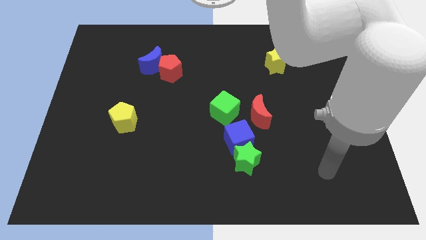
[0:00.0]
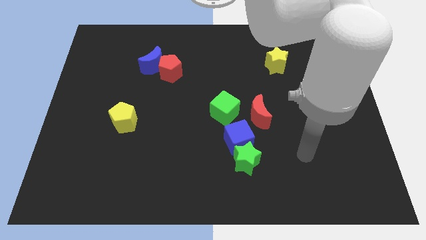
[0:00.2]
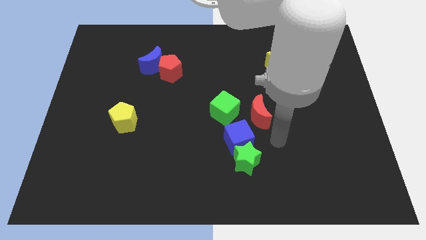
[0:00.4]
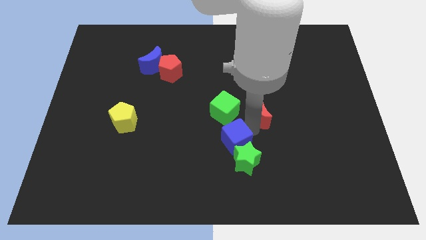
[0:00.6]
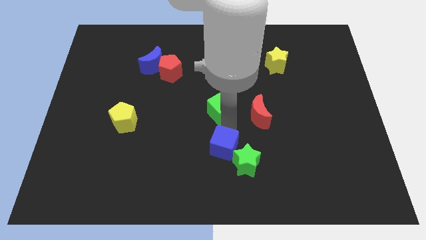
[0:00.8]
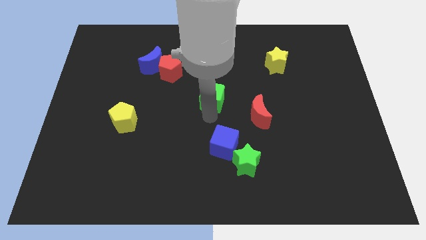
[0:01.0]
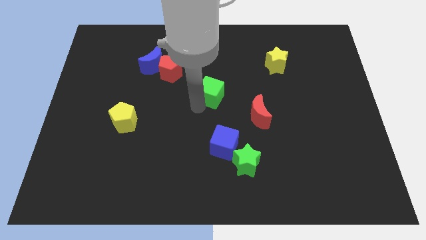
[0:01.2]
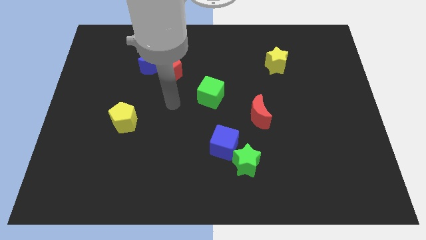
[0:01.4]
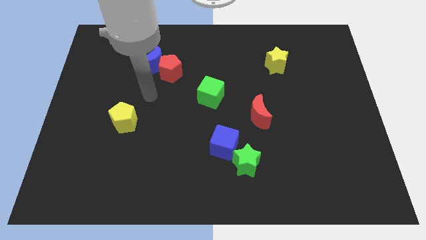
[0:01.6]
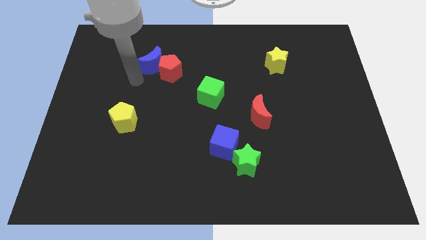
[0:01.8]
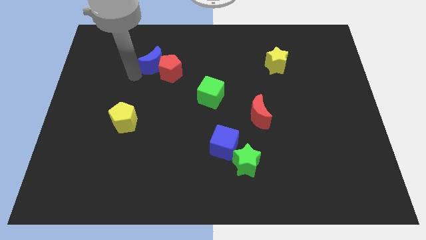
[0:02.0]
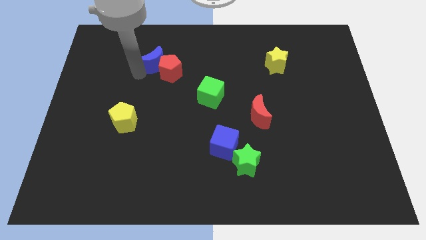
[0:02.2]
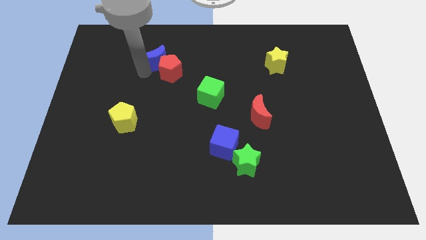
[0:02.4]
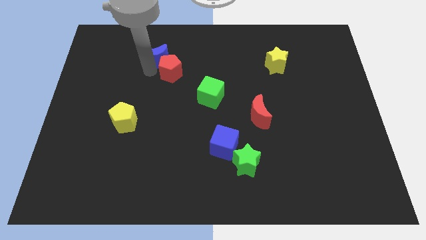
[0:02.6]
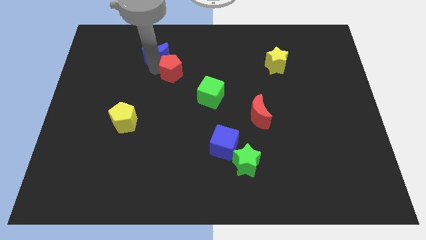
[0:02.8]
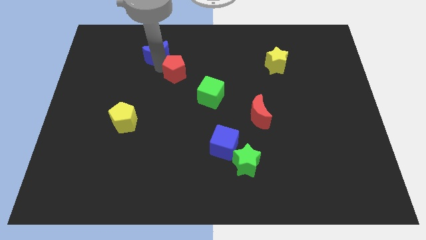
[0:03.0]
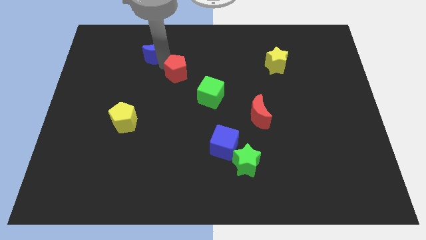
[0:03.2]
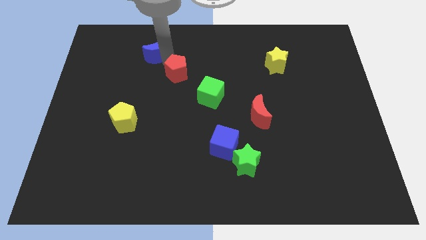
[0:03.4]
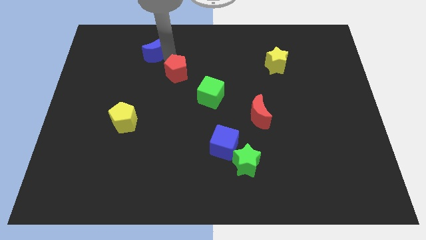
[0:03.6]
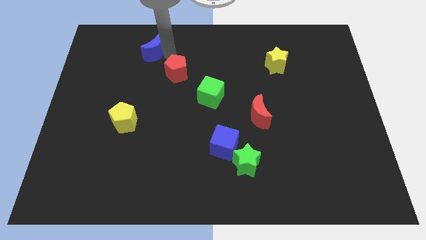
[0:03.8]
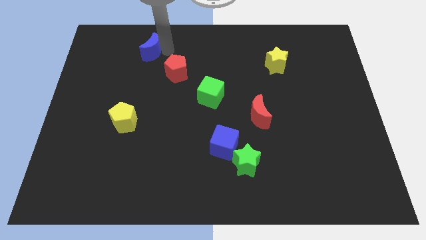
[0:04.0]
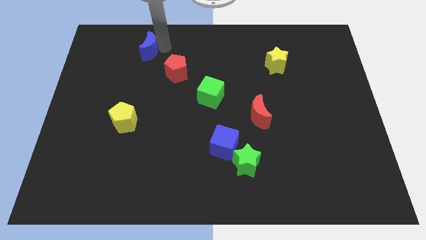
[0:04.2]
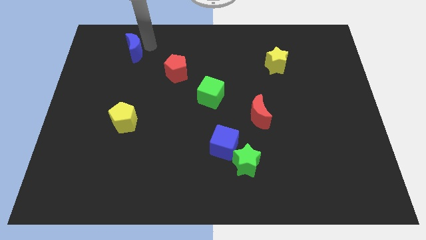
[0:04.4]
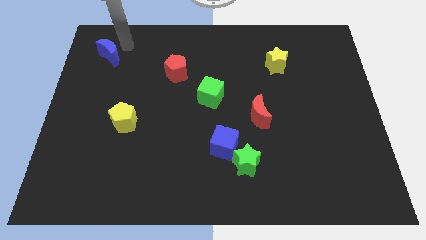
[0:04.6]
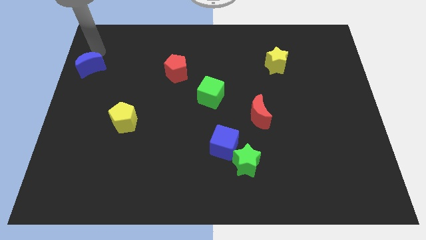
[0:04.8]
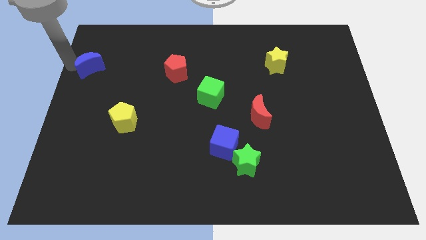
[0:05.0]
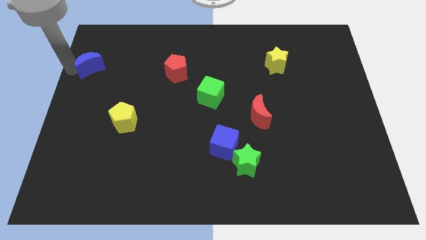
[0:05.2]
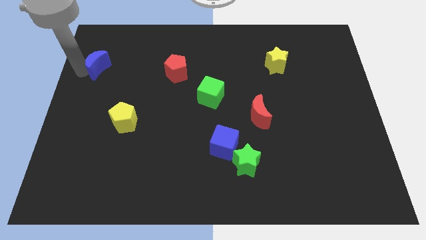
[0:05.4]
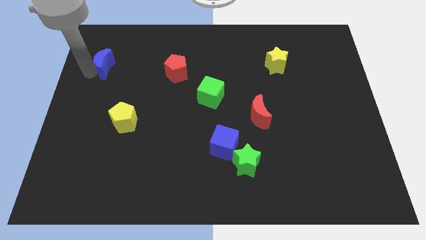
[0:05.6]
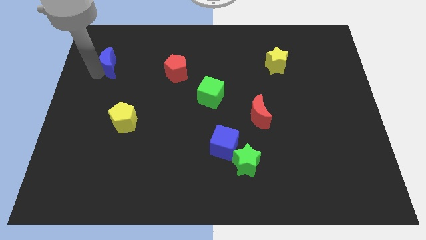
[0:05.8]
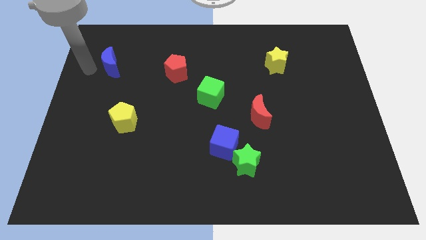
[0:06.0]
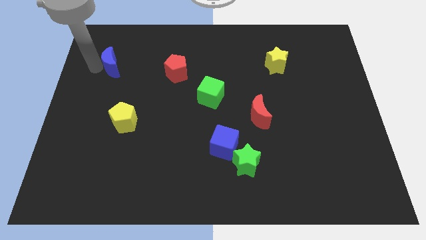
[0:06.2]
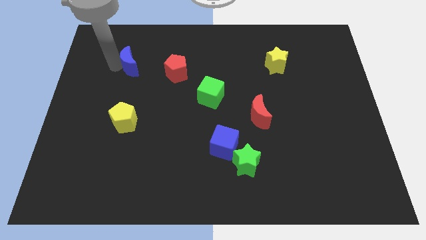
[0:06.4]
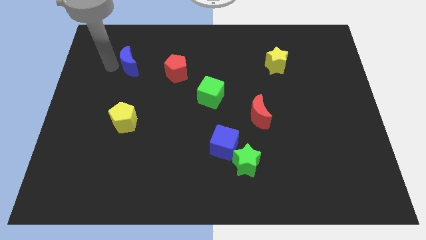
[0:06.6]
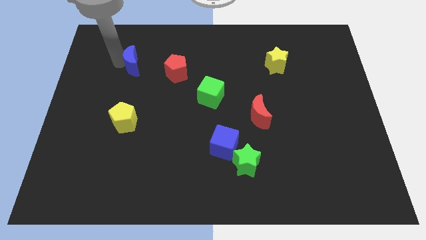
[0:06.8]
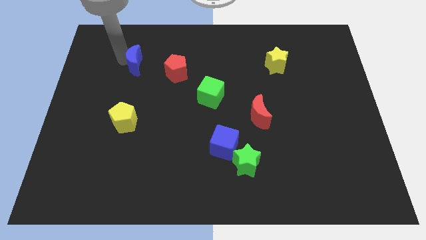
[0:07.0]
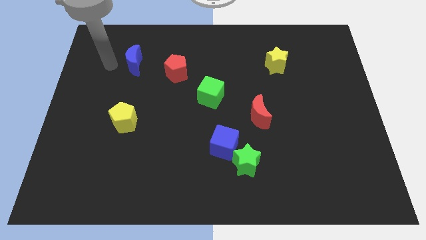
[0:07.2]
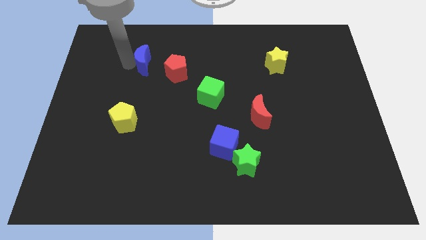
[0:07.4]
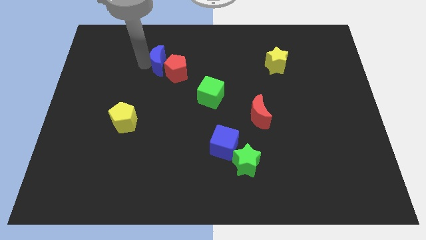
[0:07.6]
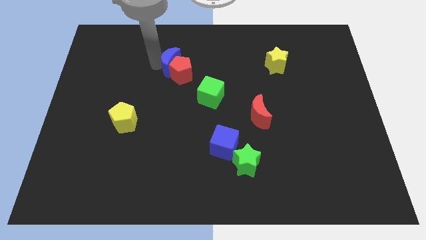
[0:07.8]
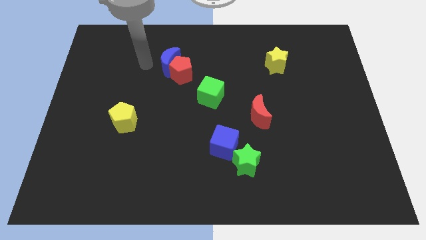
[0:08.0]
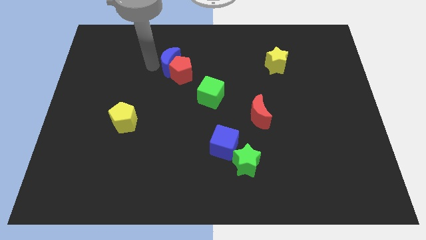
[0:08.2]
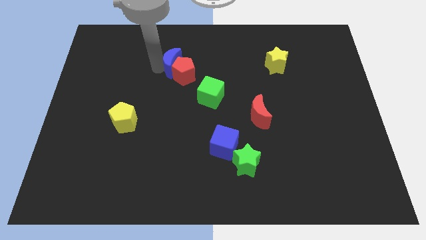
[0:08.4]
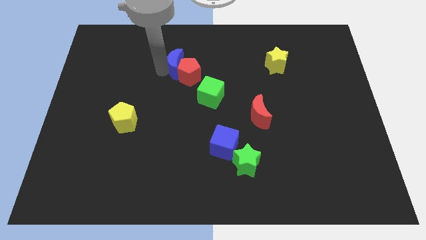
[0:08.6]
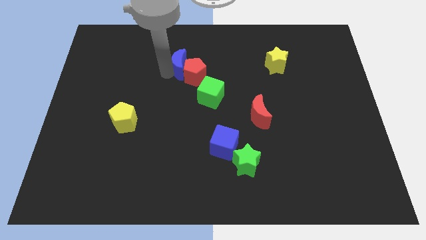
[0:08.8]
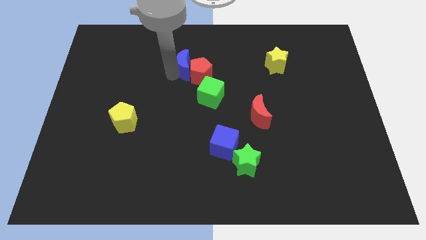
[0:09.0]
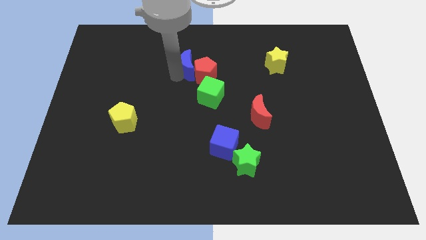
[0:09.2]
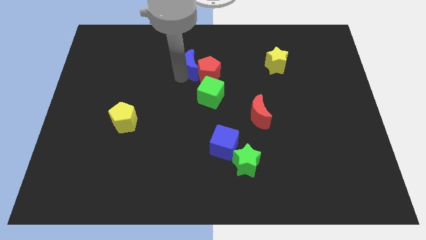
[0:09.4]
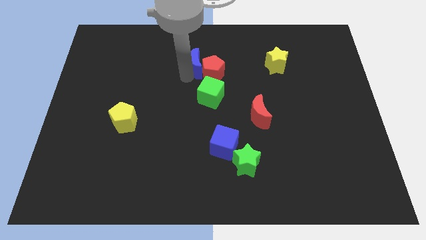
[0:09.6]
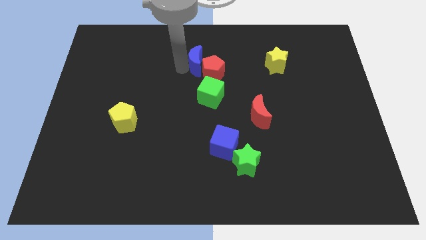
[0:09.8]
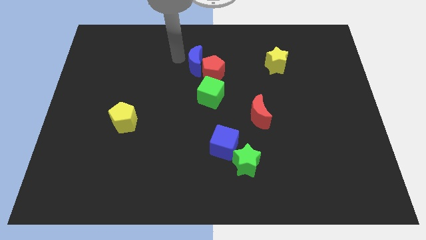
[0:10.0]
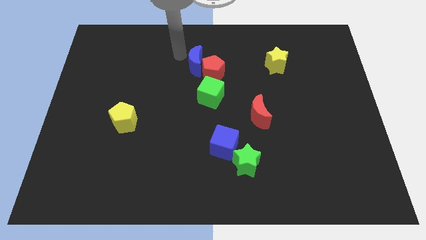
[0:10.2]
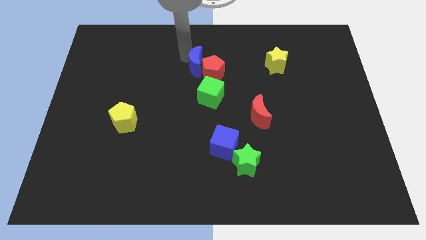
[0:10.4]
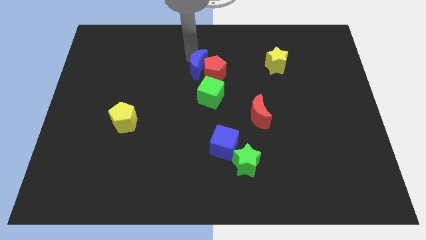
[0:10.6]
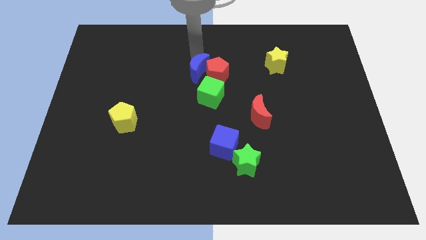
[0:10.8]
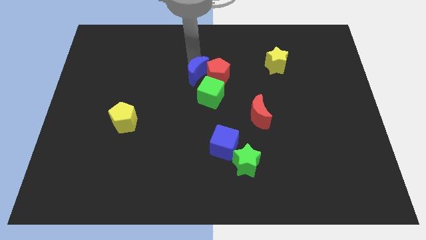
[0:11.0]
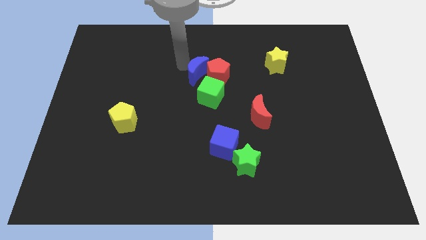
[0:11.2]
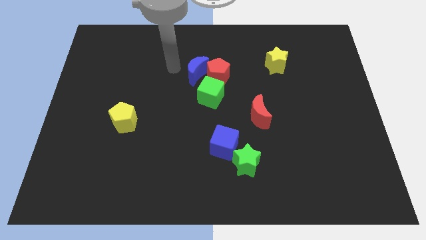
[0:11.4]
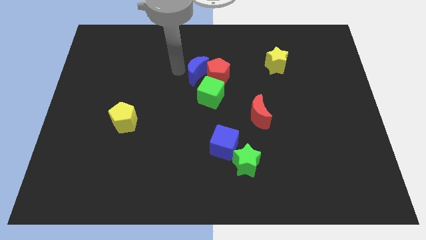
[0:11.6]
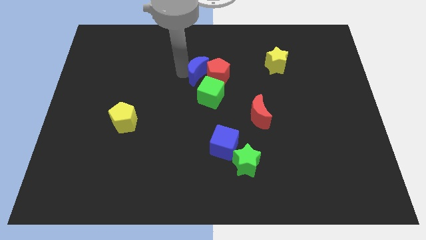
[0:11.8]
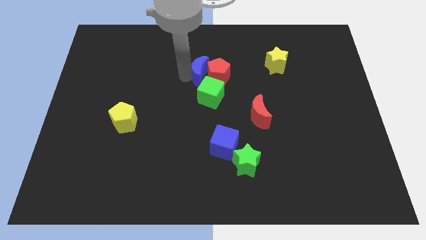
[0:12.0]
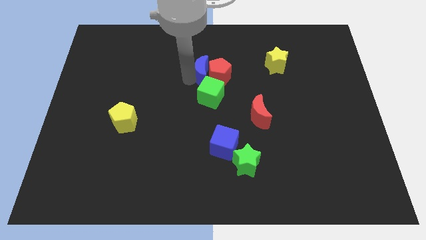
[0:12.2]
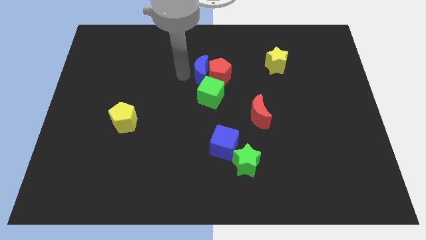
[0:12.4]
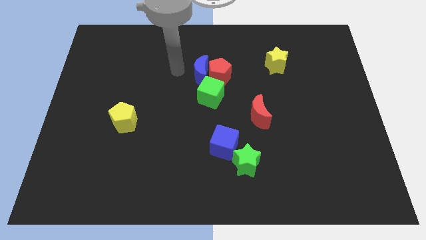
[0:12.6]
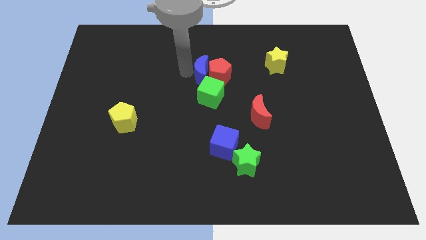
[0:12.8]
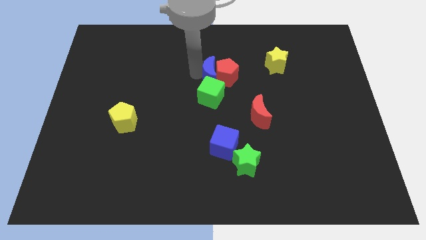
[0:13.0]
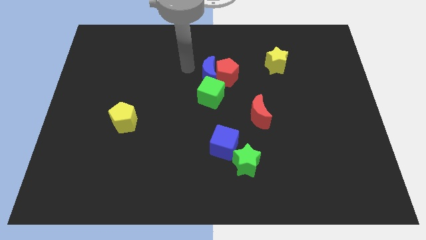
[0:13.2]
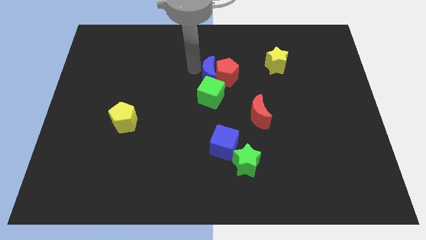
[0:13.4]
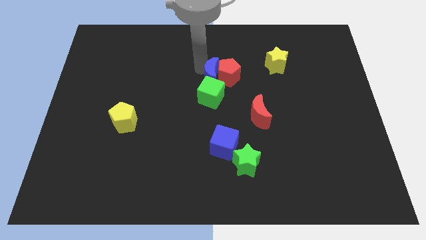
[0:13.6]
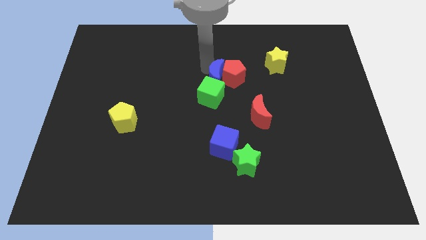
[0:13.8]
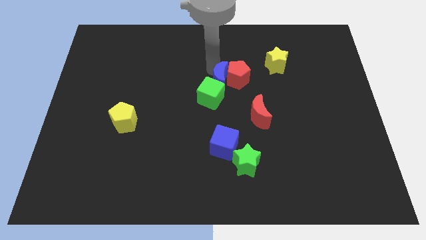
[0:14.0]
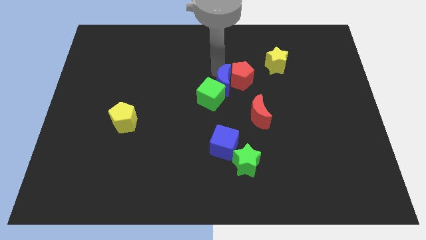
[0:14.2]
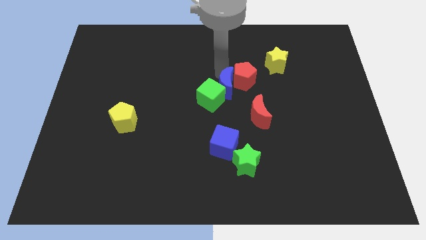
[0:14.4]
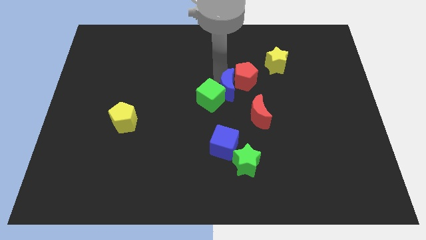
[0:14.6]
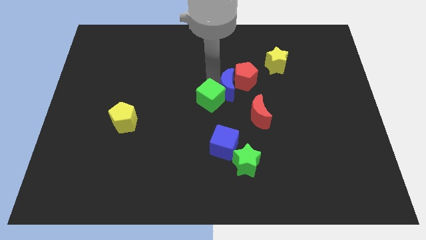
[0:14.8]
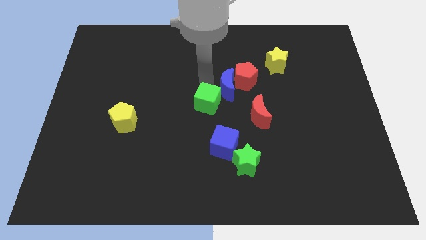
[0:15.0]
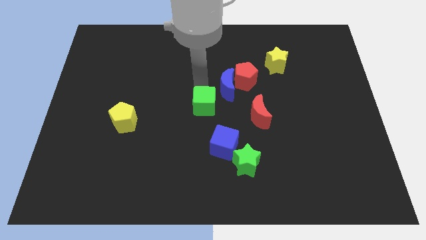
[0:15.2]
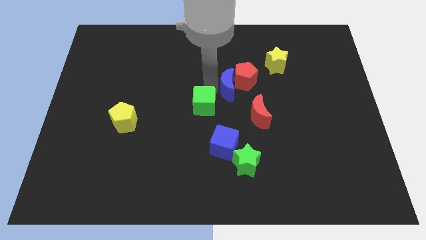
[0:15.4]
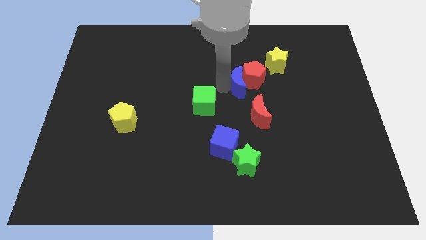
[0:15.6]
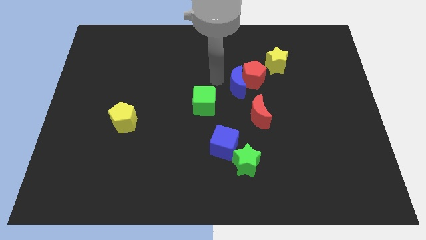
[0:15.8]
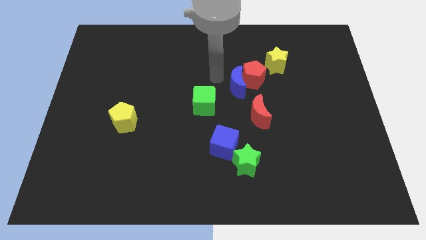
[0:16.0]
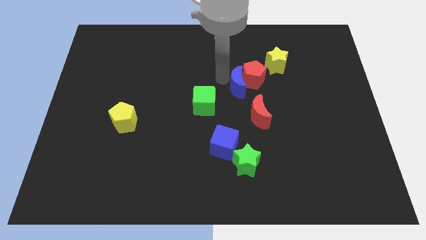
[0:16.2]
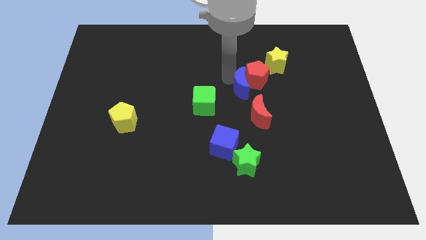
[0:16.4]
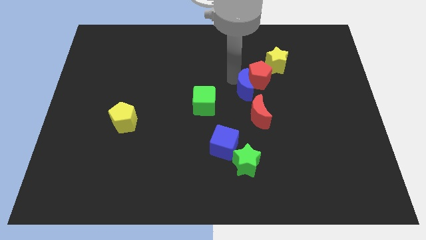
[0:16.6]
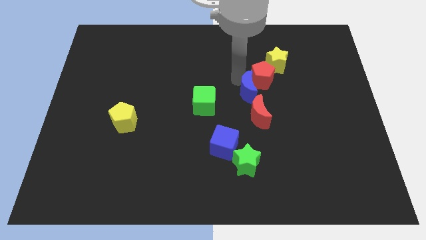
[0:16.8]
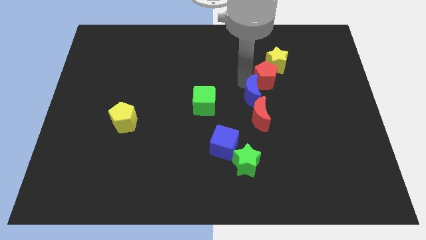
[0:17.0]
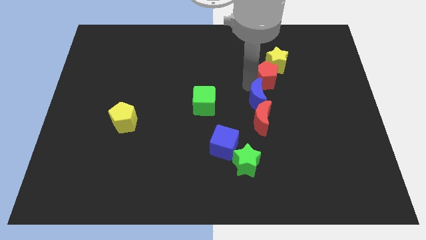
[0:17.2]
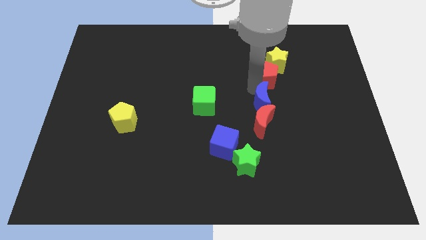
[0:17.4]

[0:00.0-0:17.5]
slide the blue moon towards the red moon
